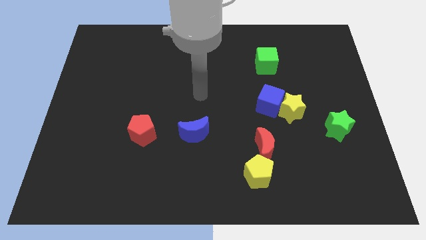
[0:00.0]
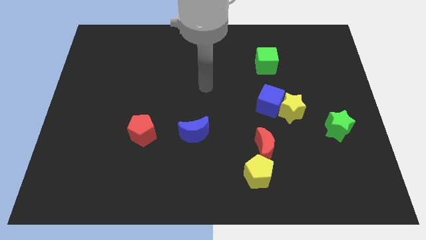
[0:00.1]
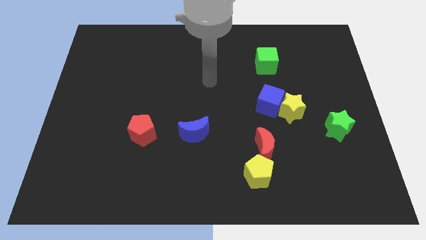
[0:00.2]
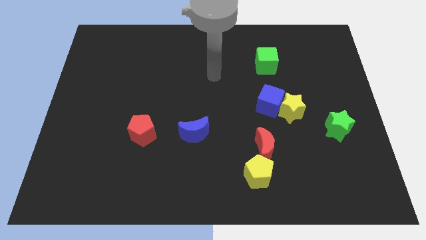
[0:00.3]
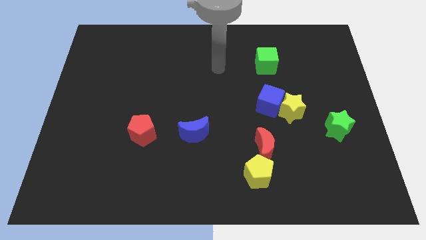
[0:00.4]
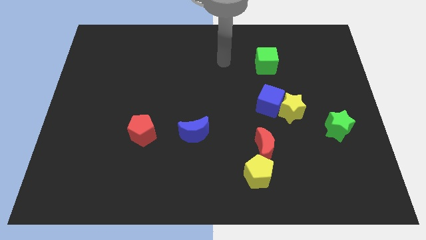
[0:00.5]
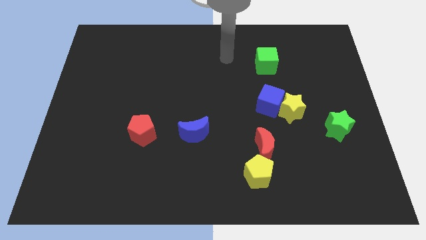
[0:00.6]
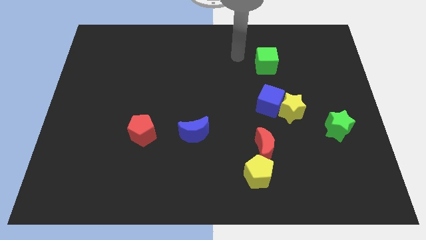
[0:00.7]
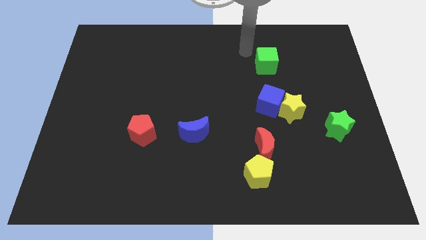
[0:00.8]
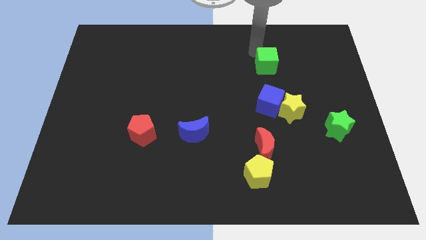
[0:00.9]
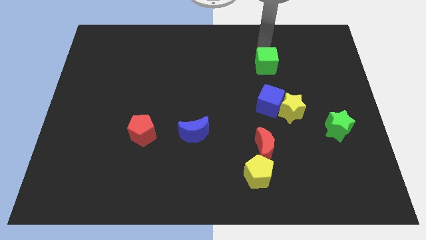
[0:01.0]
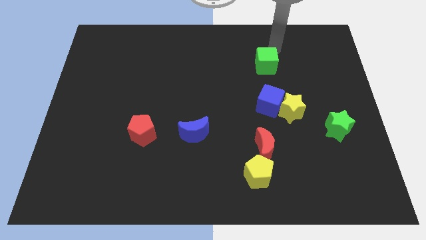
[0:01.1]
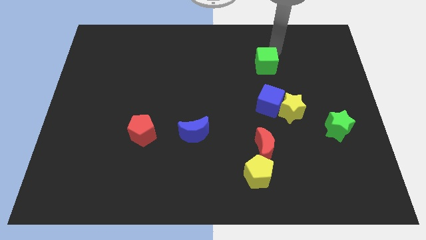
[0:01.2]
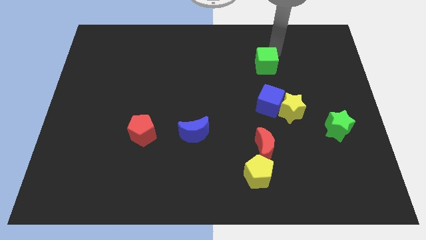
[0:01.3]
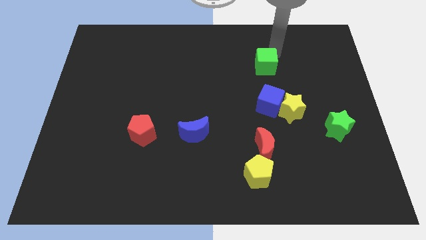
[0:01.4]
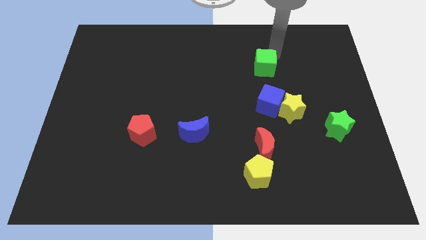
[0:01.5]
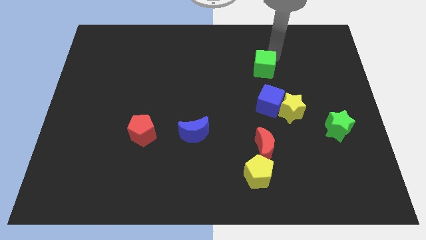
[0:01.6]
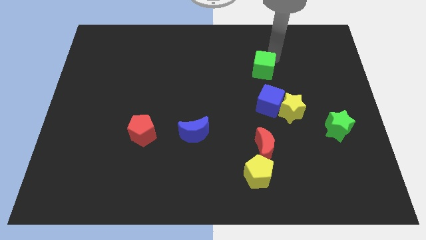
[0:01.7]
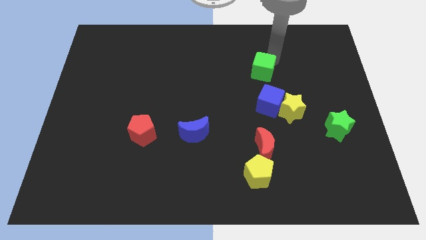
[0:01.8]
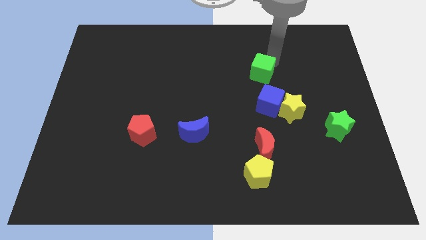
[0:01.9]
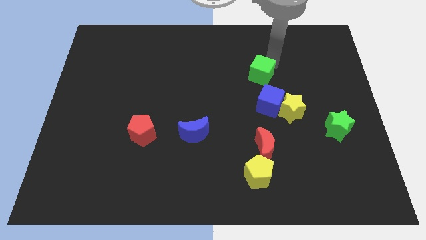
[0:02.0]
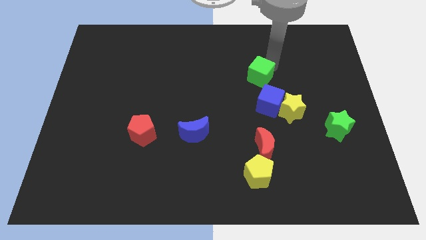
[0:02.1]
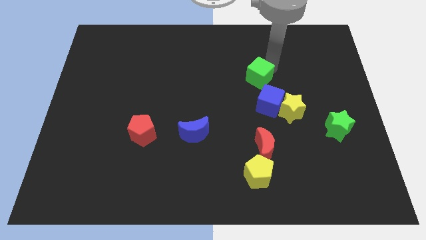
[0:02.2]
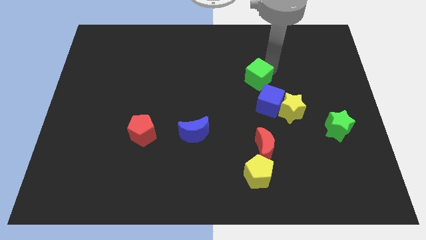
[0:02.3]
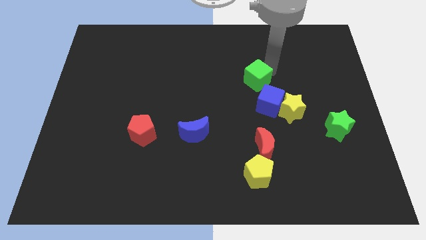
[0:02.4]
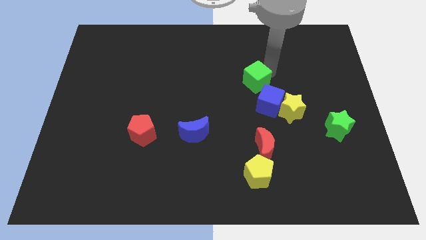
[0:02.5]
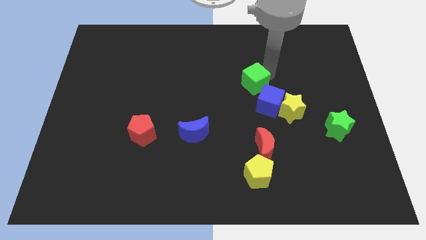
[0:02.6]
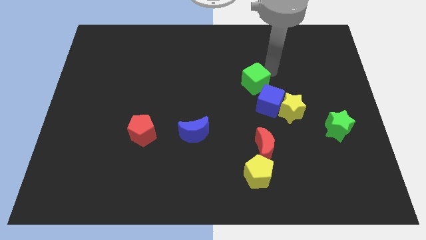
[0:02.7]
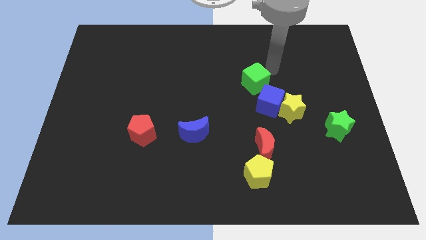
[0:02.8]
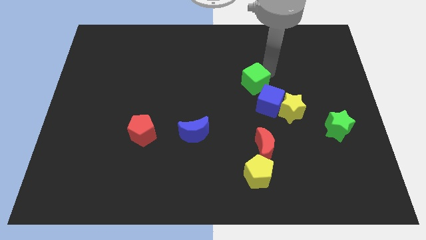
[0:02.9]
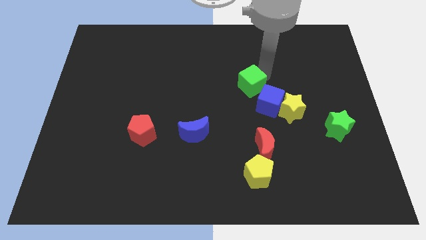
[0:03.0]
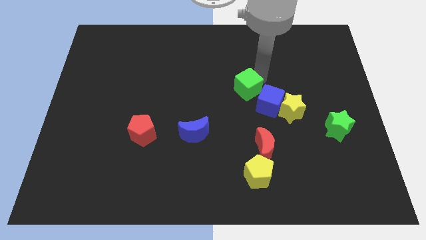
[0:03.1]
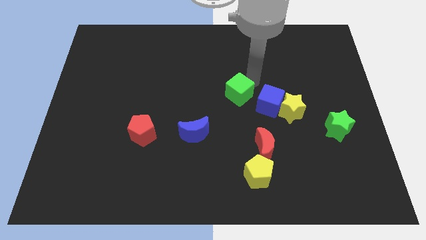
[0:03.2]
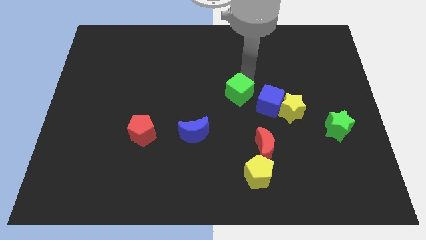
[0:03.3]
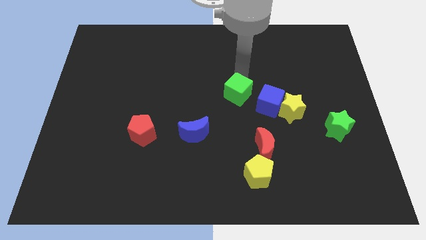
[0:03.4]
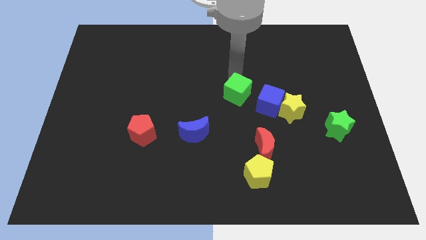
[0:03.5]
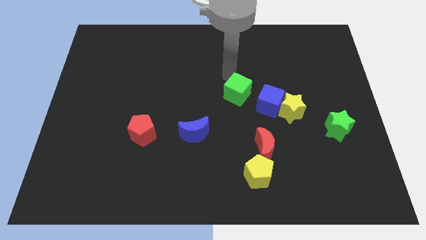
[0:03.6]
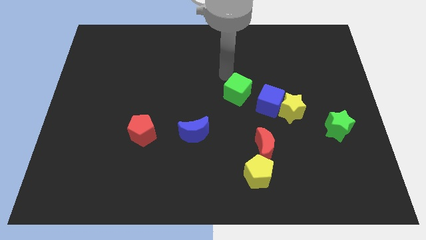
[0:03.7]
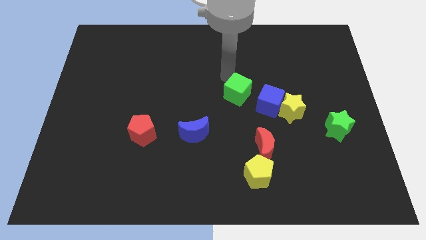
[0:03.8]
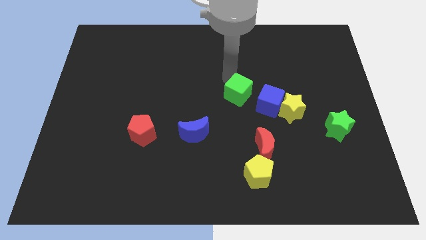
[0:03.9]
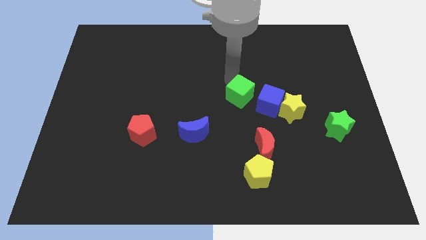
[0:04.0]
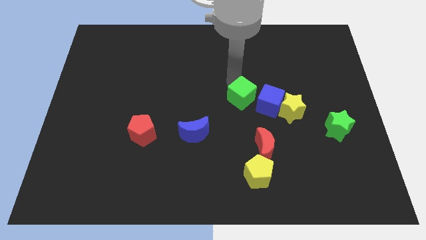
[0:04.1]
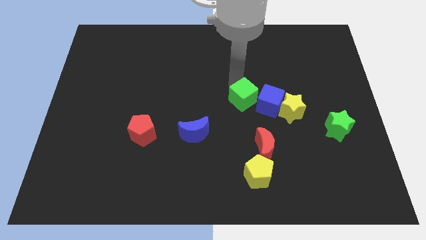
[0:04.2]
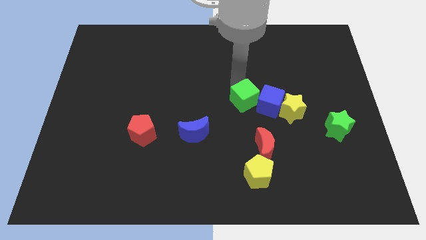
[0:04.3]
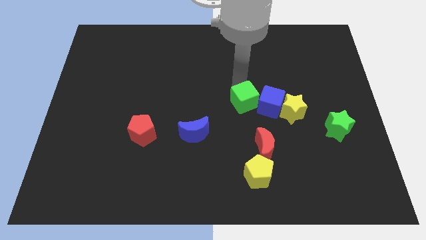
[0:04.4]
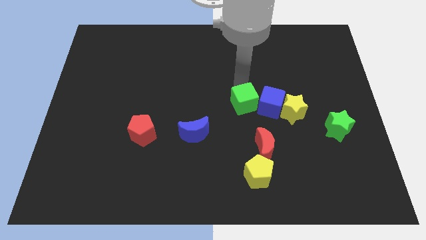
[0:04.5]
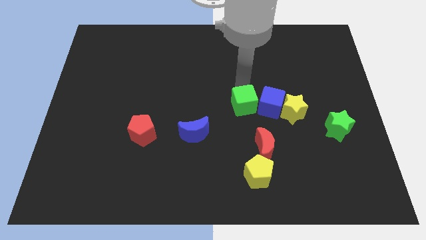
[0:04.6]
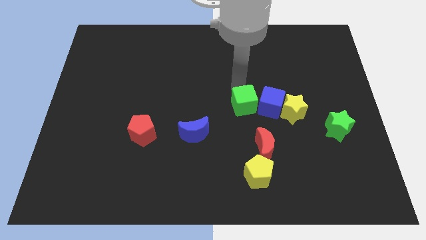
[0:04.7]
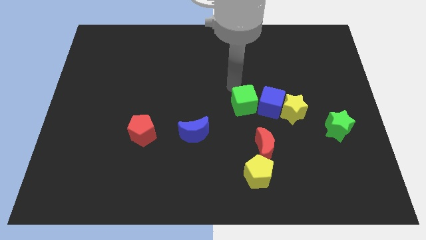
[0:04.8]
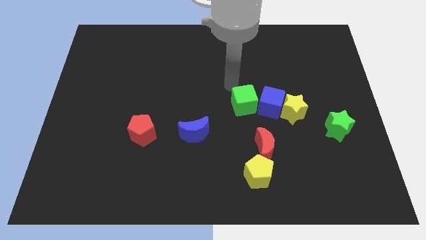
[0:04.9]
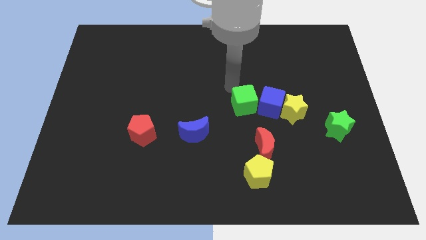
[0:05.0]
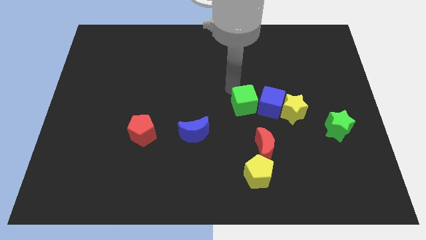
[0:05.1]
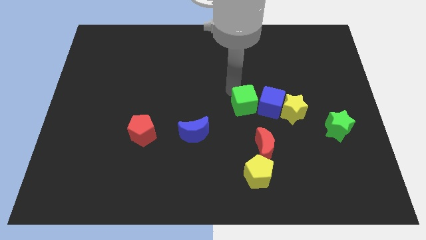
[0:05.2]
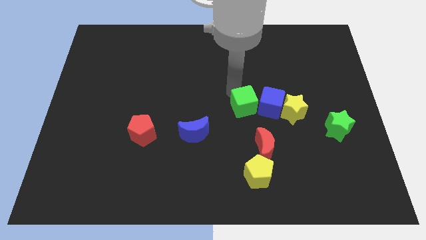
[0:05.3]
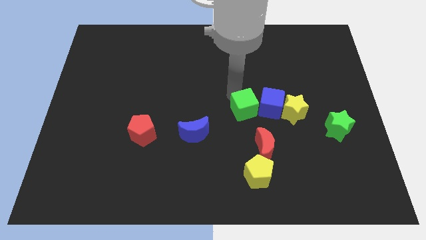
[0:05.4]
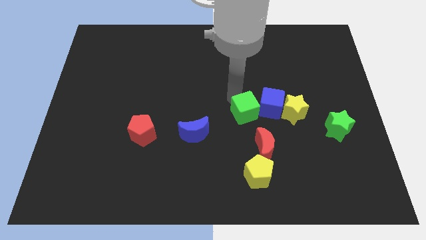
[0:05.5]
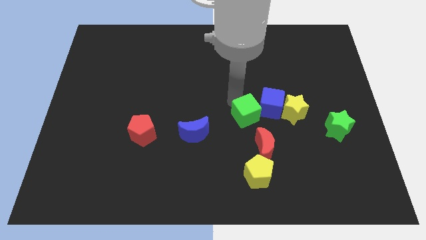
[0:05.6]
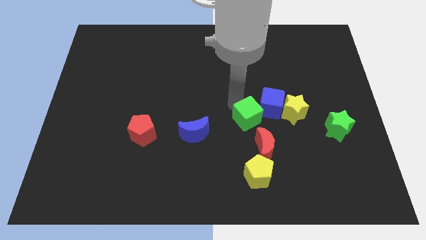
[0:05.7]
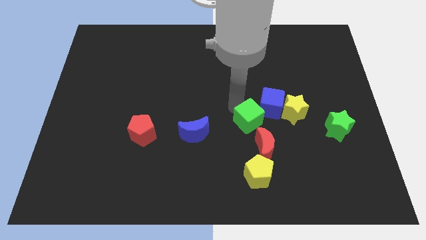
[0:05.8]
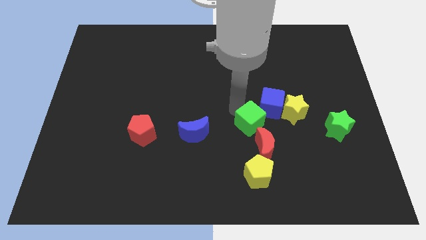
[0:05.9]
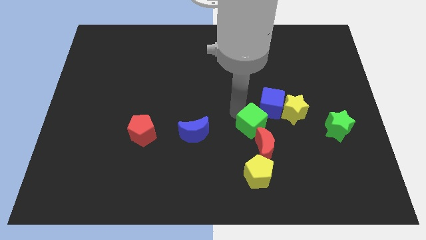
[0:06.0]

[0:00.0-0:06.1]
move the green cube below the blue cube
